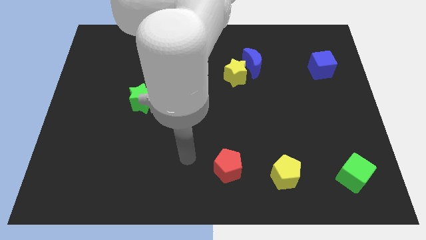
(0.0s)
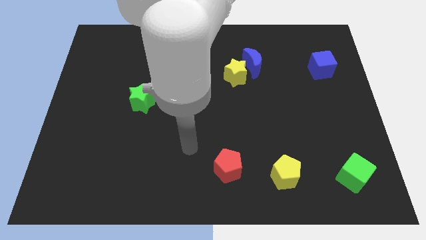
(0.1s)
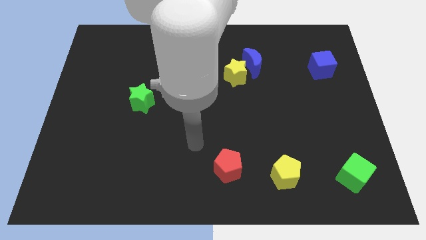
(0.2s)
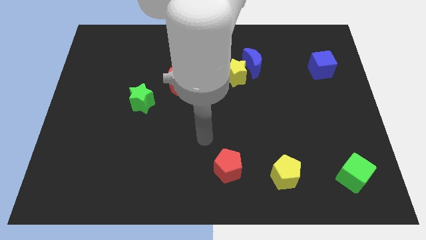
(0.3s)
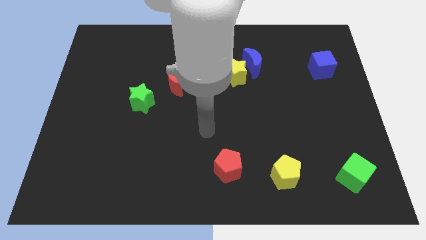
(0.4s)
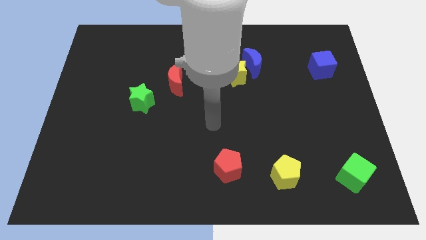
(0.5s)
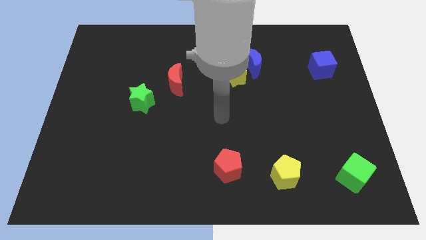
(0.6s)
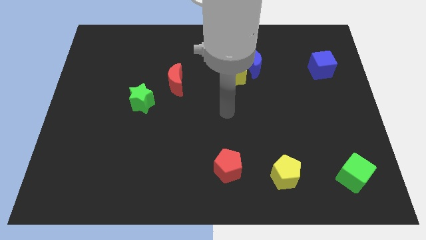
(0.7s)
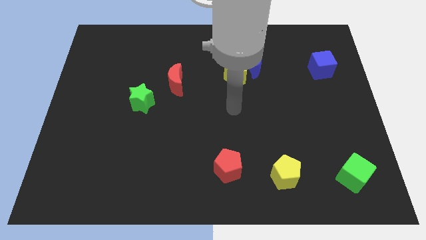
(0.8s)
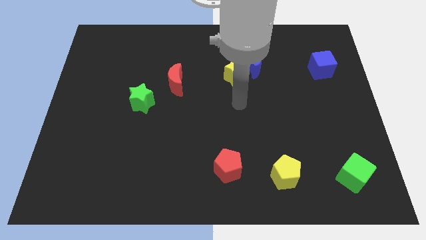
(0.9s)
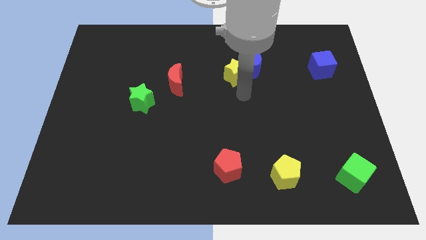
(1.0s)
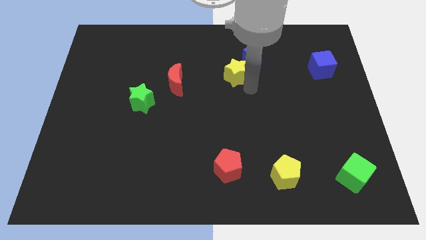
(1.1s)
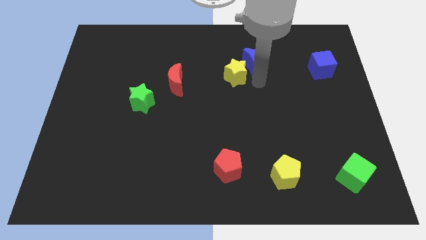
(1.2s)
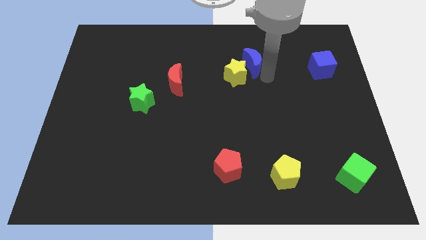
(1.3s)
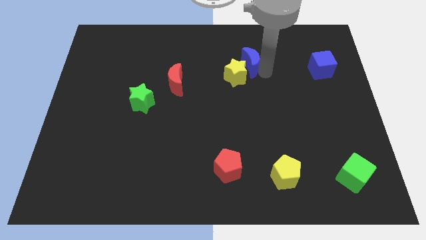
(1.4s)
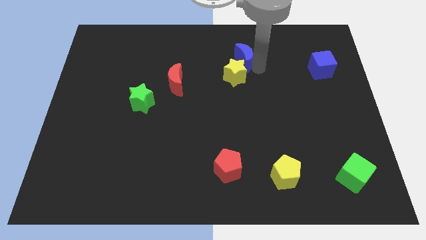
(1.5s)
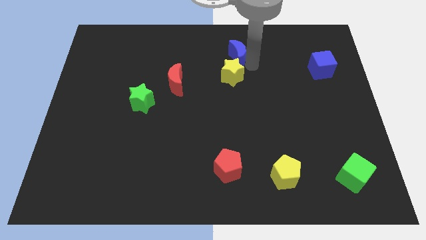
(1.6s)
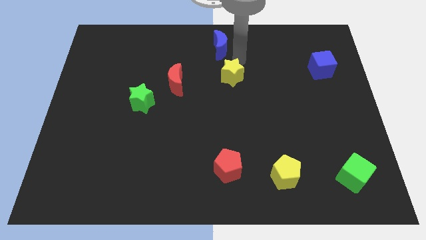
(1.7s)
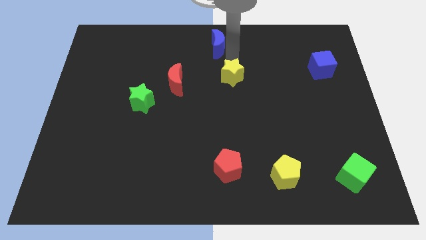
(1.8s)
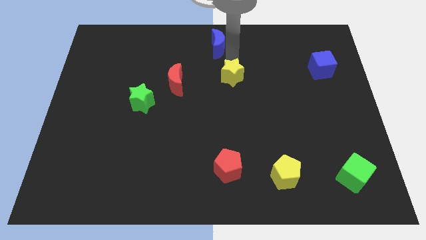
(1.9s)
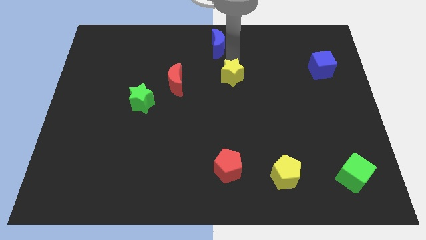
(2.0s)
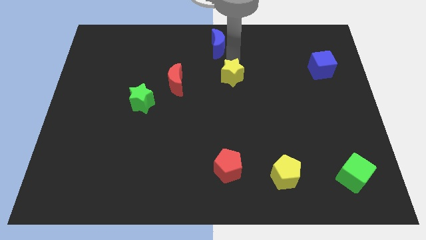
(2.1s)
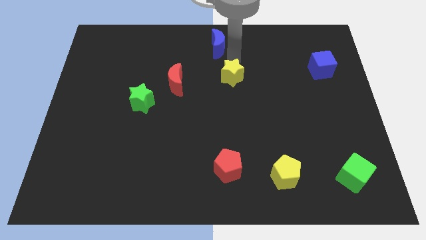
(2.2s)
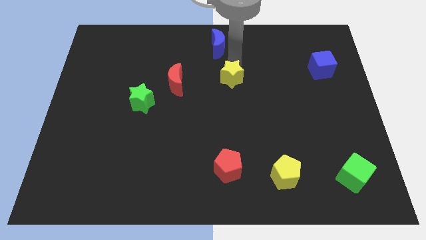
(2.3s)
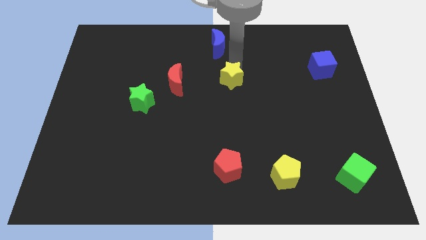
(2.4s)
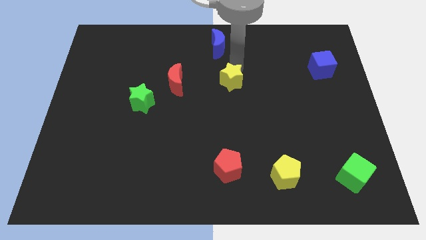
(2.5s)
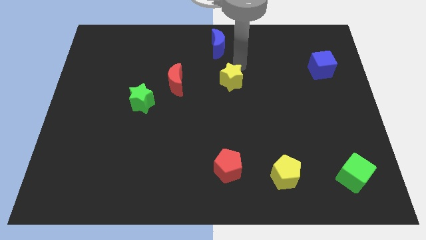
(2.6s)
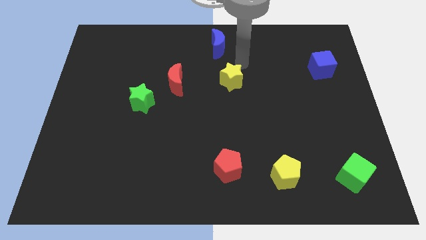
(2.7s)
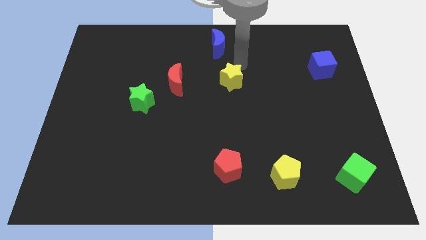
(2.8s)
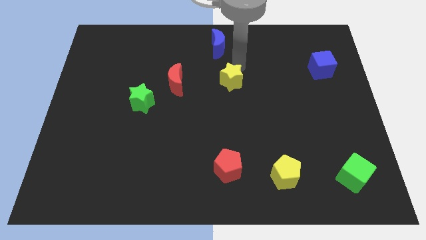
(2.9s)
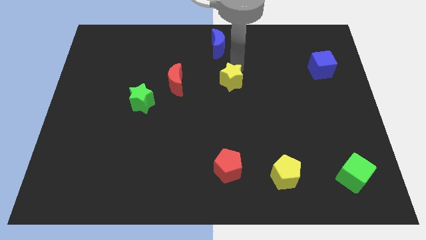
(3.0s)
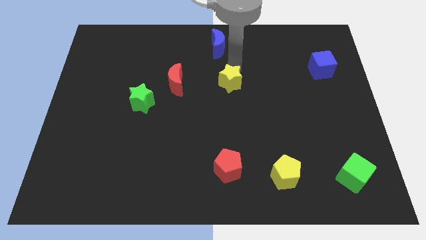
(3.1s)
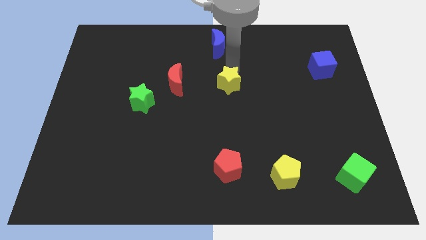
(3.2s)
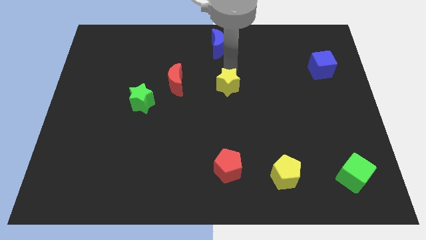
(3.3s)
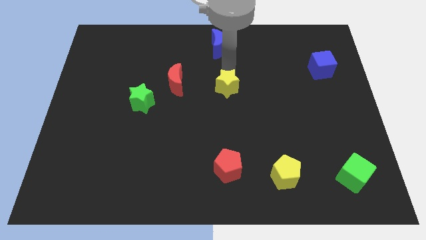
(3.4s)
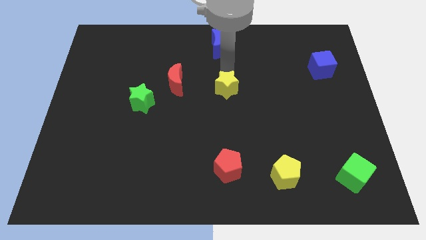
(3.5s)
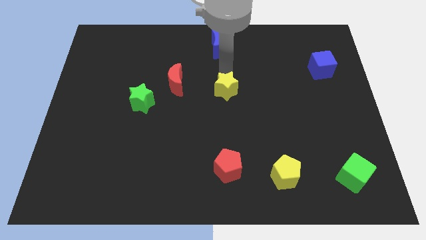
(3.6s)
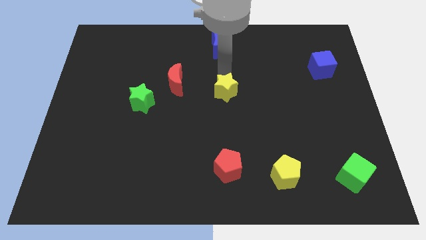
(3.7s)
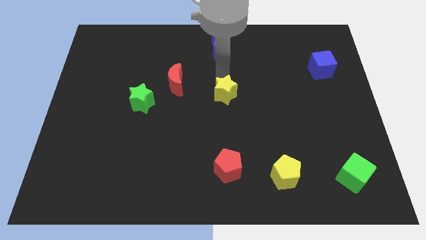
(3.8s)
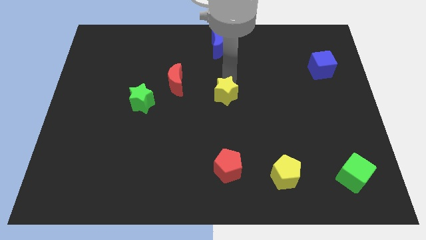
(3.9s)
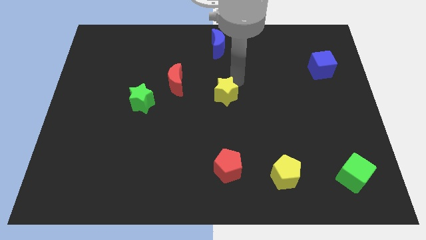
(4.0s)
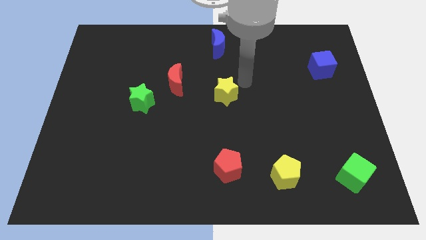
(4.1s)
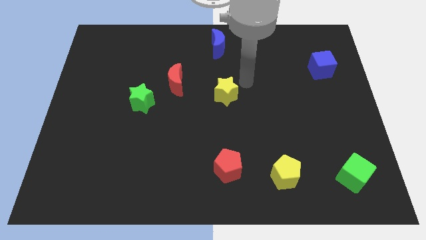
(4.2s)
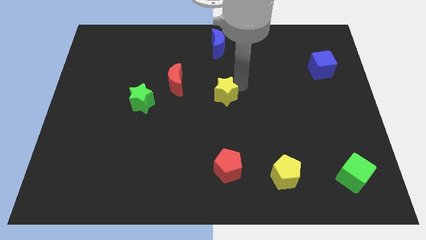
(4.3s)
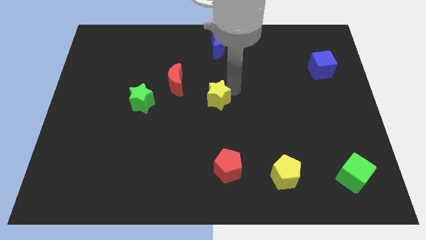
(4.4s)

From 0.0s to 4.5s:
slightly move the yellow star downwards and to the left

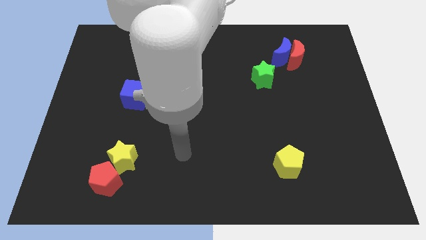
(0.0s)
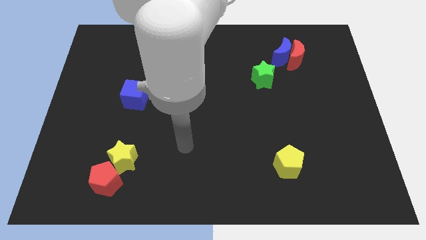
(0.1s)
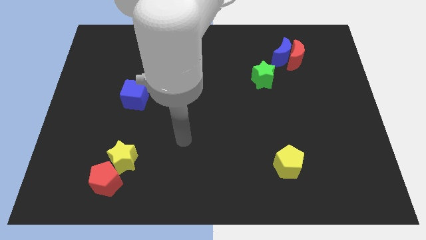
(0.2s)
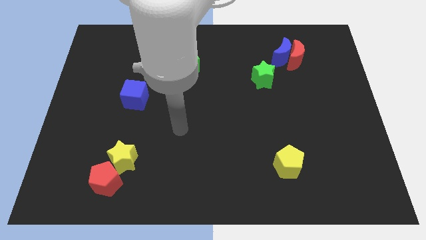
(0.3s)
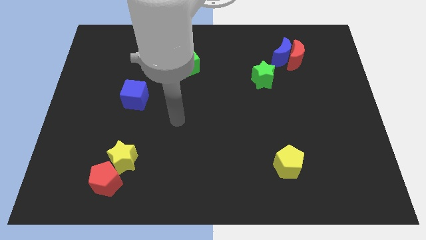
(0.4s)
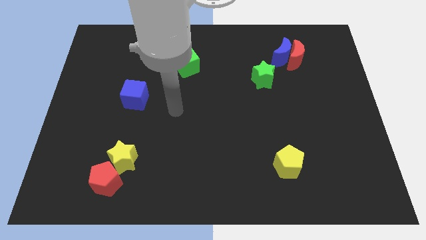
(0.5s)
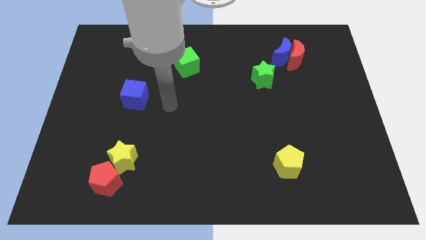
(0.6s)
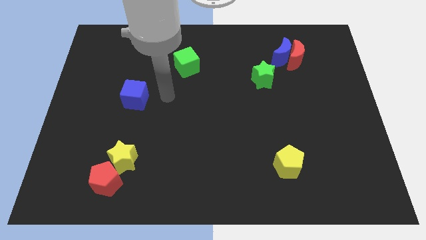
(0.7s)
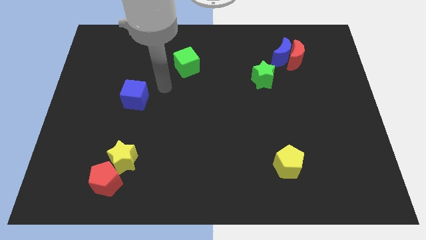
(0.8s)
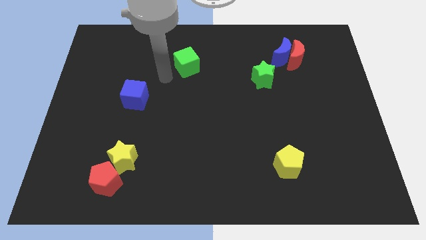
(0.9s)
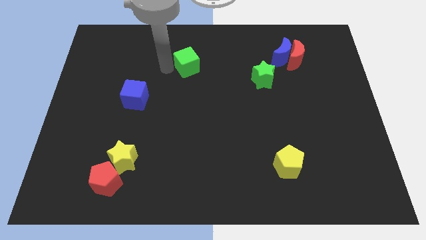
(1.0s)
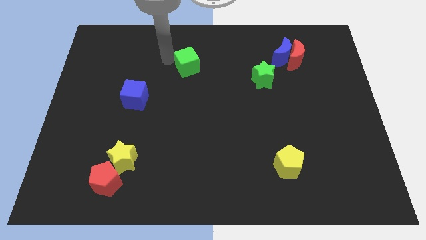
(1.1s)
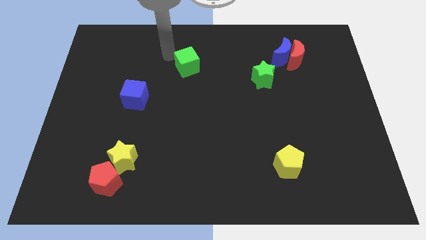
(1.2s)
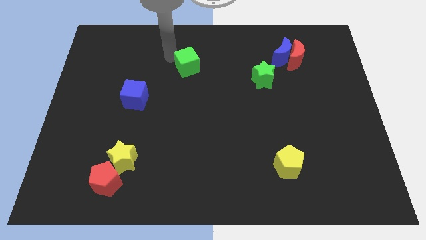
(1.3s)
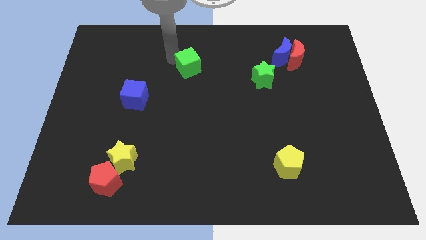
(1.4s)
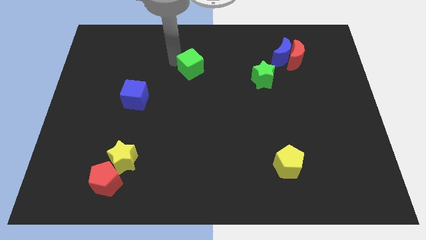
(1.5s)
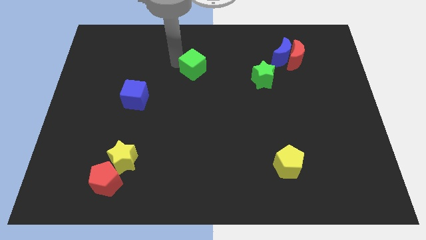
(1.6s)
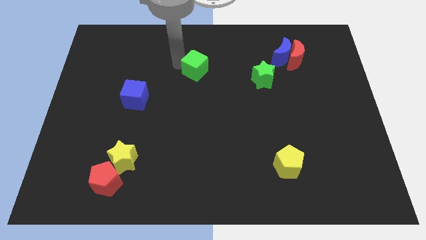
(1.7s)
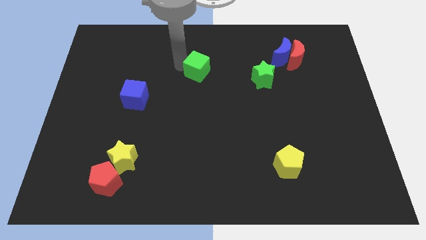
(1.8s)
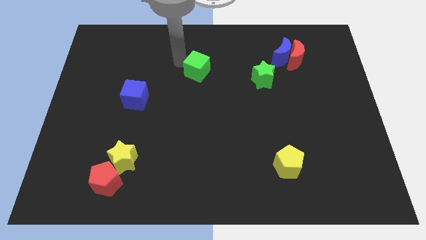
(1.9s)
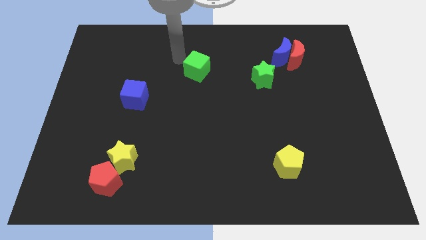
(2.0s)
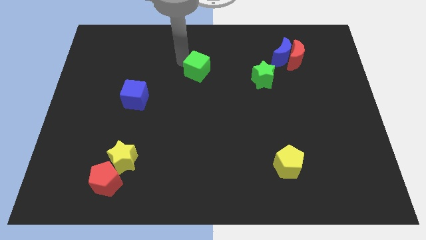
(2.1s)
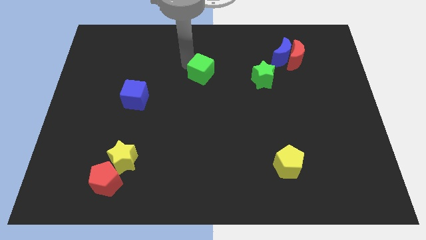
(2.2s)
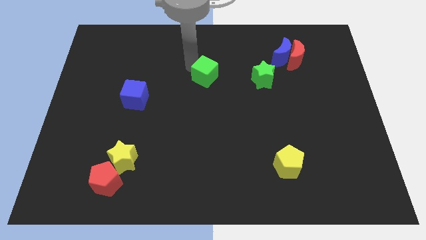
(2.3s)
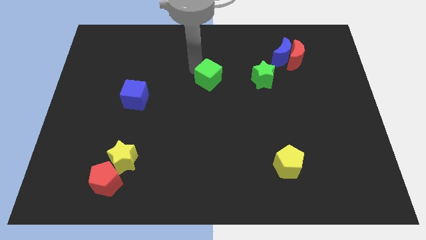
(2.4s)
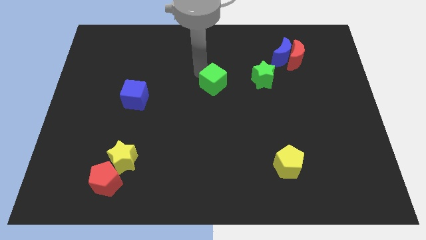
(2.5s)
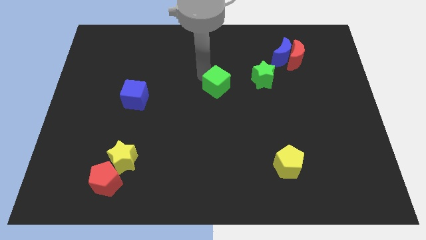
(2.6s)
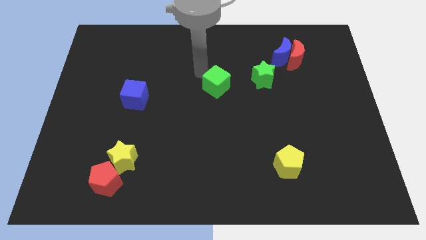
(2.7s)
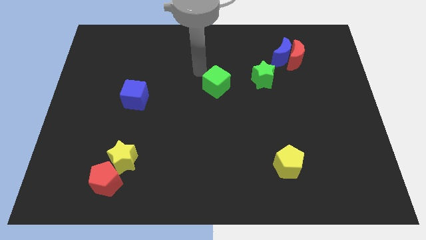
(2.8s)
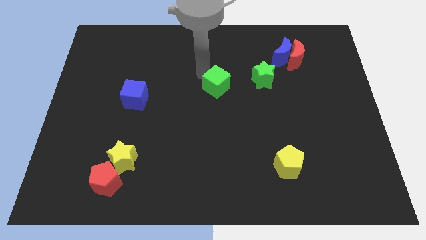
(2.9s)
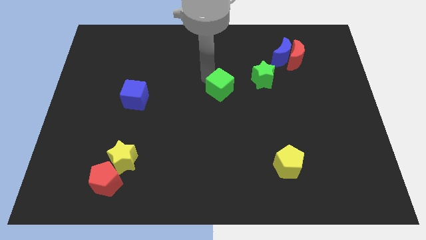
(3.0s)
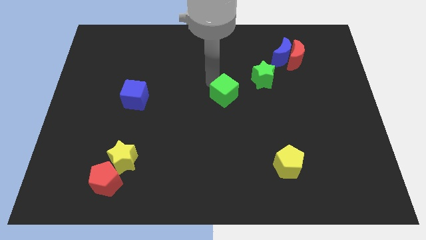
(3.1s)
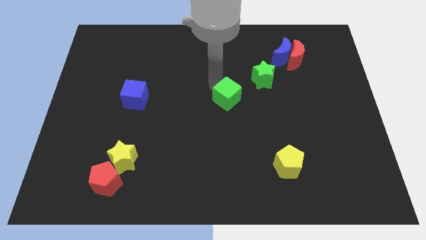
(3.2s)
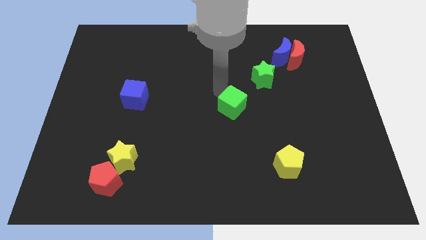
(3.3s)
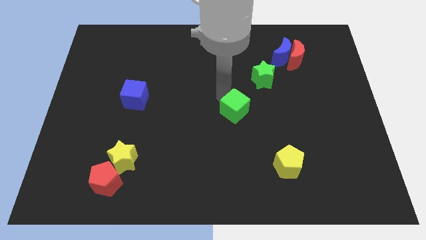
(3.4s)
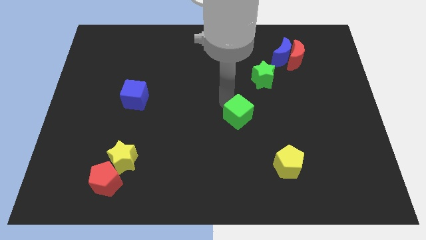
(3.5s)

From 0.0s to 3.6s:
slide the green cube downwards and to the right
